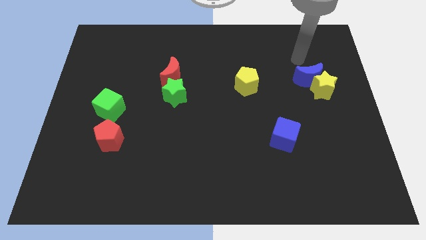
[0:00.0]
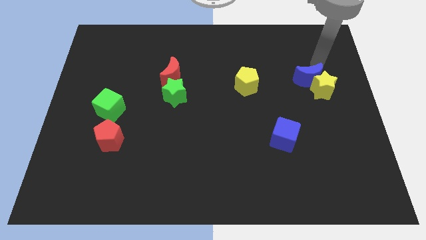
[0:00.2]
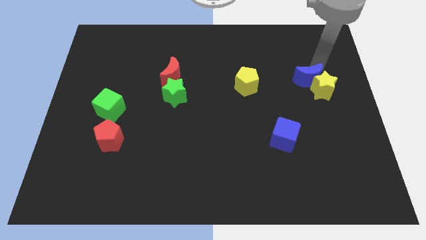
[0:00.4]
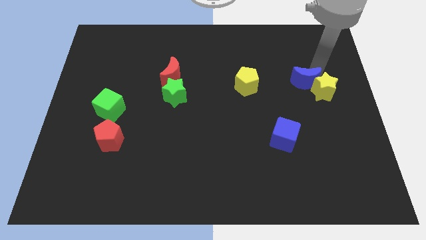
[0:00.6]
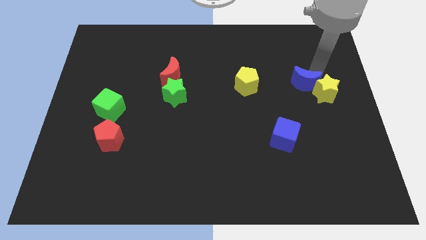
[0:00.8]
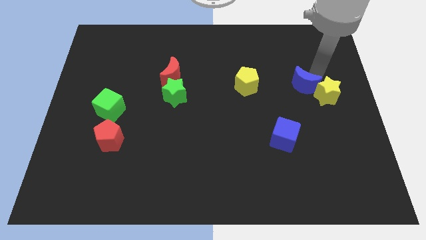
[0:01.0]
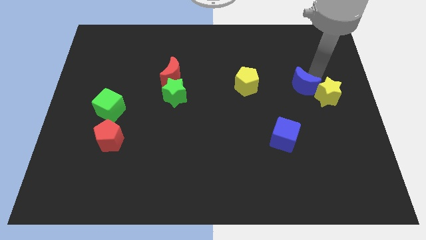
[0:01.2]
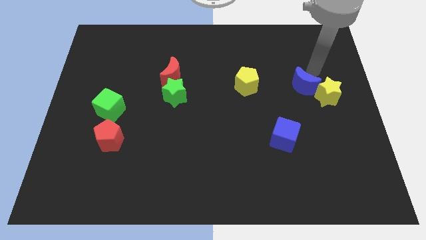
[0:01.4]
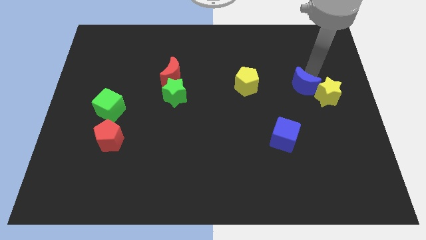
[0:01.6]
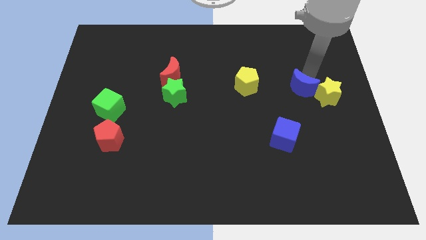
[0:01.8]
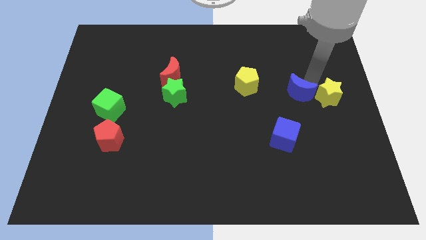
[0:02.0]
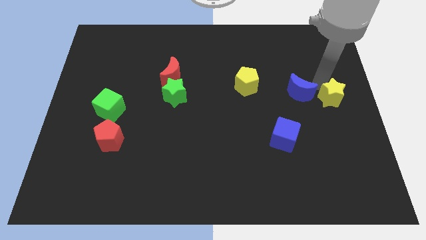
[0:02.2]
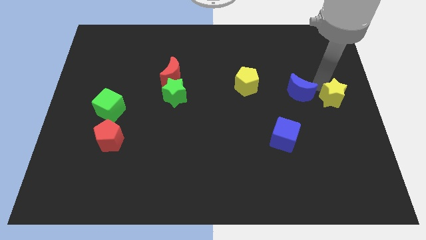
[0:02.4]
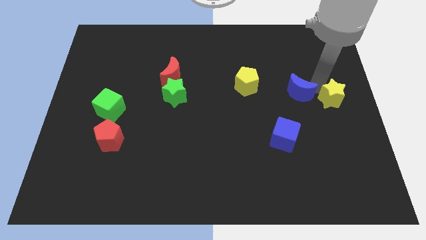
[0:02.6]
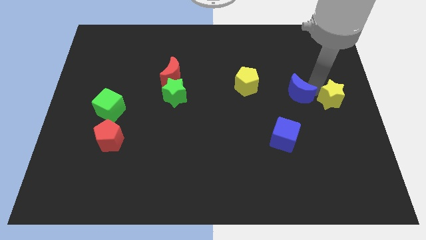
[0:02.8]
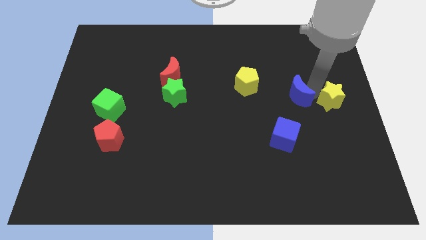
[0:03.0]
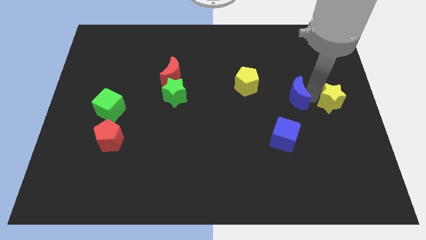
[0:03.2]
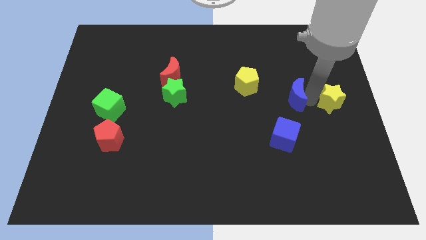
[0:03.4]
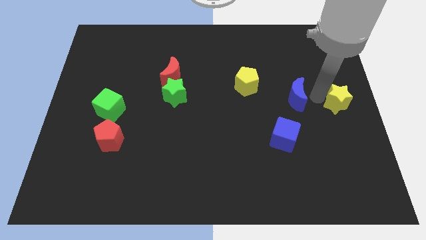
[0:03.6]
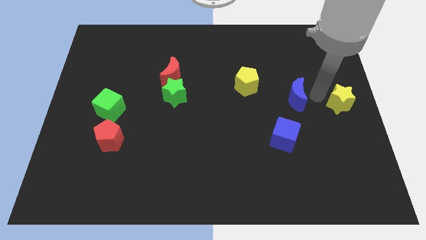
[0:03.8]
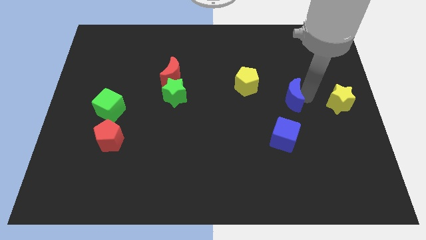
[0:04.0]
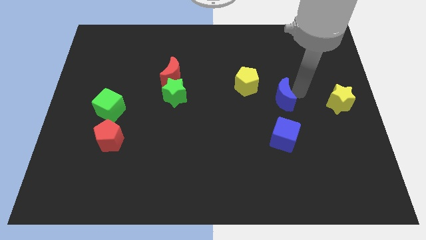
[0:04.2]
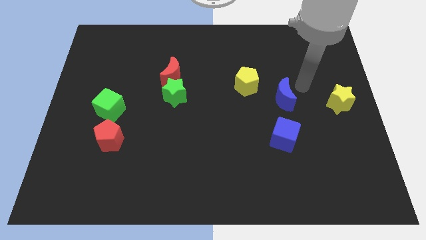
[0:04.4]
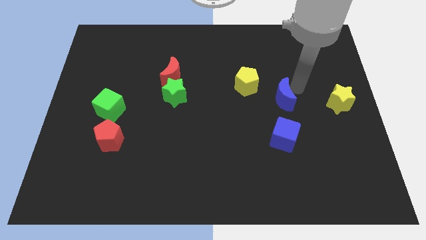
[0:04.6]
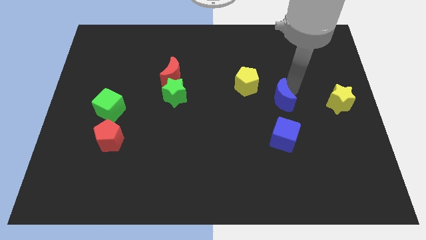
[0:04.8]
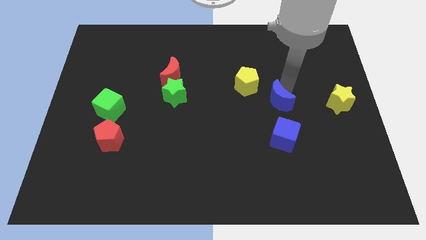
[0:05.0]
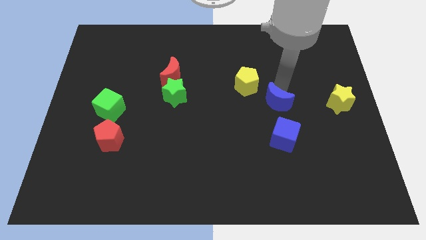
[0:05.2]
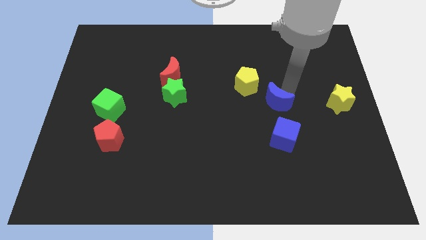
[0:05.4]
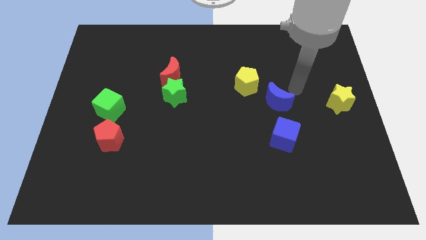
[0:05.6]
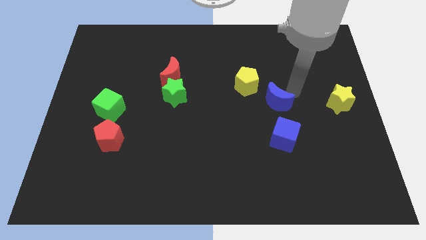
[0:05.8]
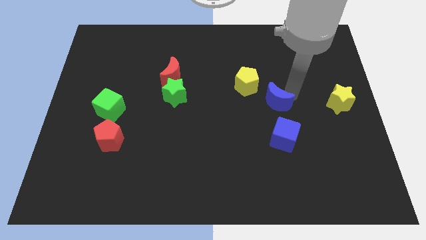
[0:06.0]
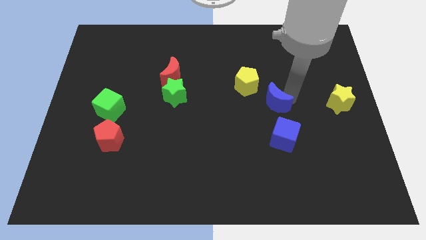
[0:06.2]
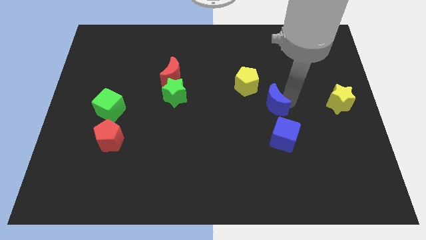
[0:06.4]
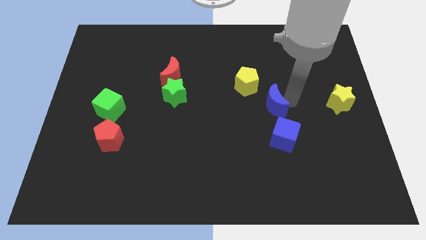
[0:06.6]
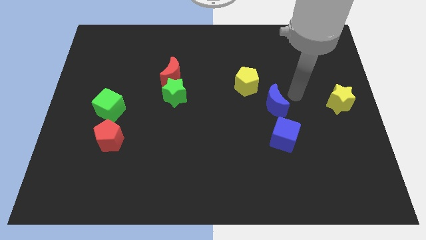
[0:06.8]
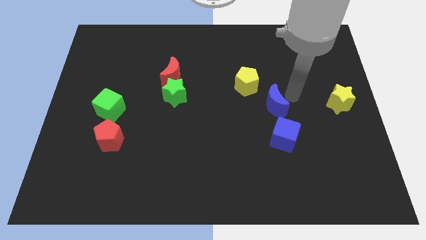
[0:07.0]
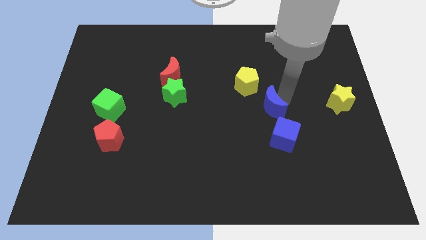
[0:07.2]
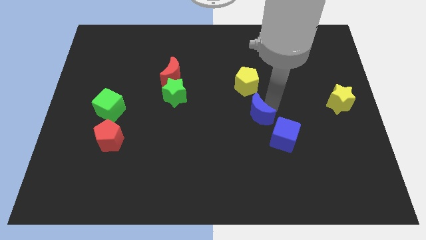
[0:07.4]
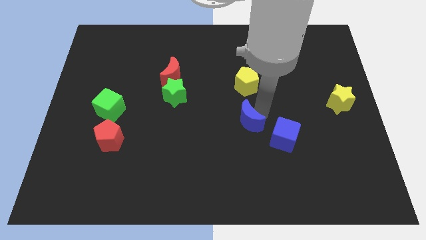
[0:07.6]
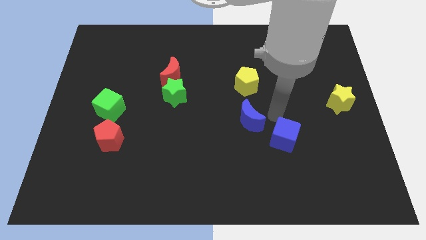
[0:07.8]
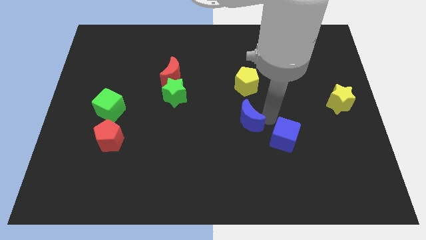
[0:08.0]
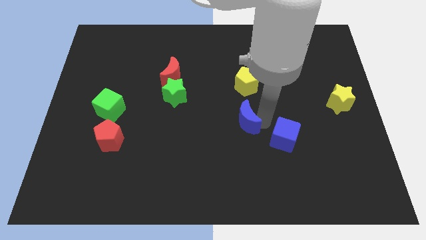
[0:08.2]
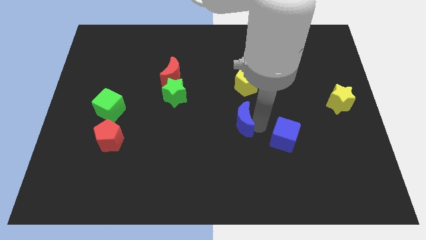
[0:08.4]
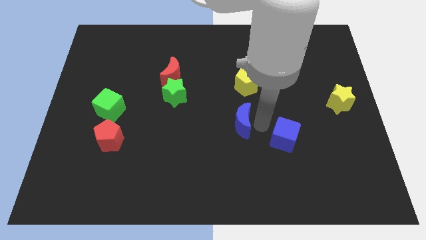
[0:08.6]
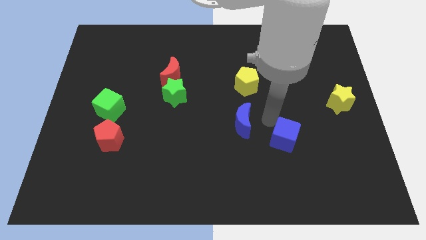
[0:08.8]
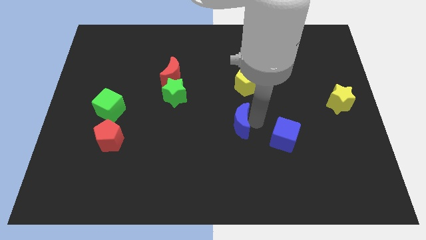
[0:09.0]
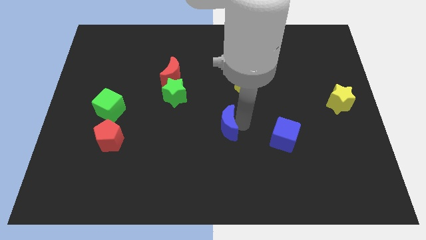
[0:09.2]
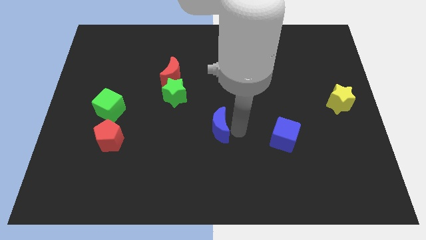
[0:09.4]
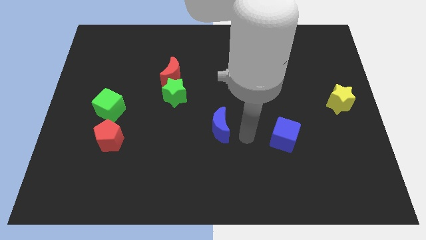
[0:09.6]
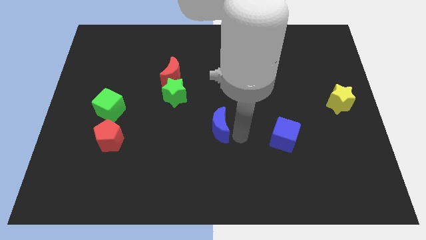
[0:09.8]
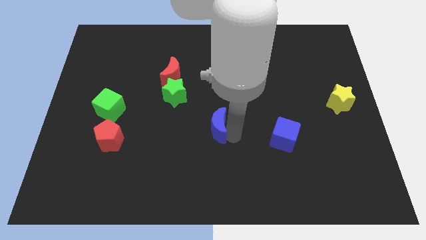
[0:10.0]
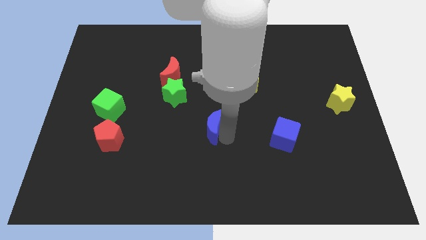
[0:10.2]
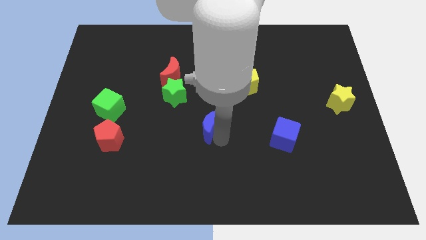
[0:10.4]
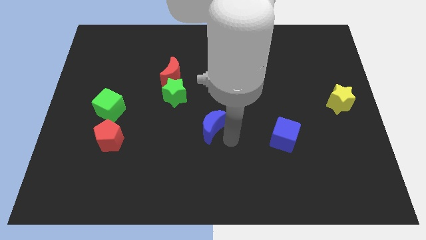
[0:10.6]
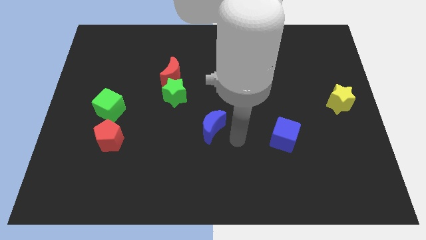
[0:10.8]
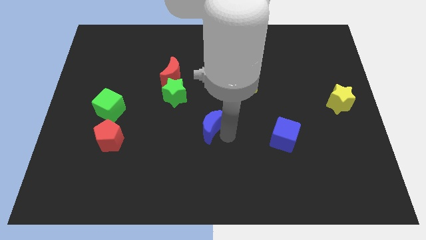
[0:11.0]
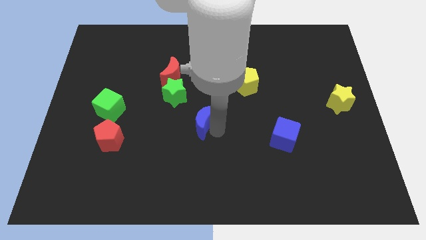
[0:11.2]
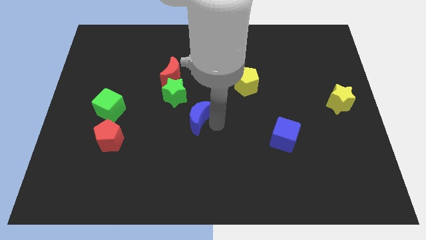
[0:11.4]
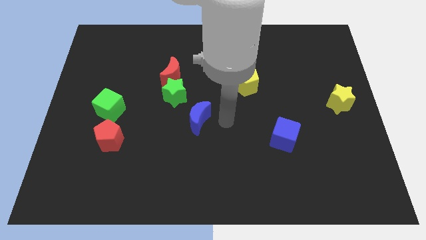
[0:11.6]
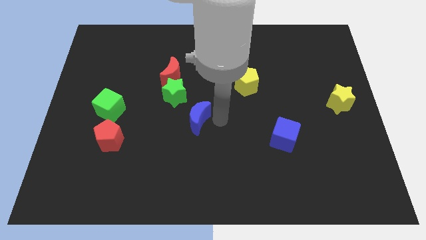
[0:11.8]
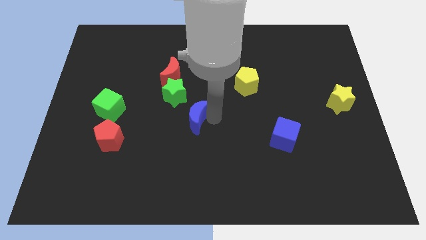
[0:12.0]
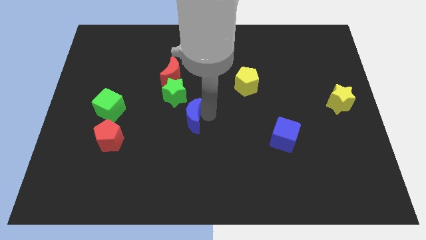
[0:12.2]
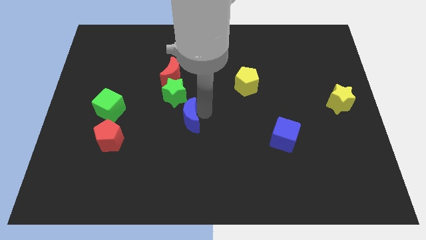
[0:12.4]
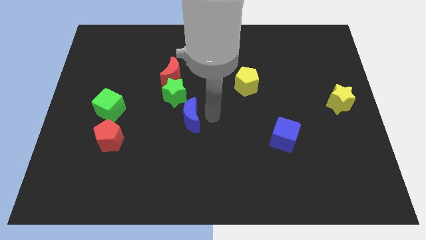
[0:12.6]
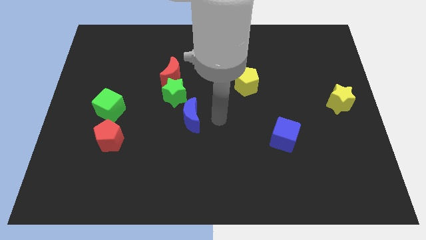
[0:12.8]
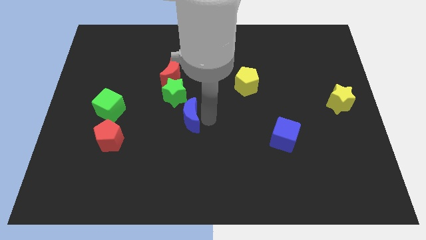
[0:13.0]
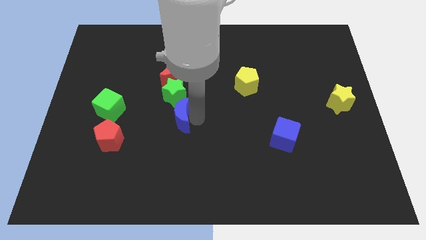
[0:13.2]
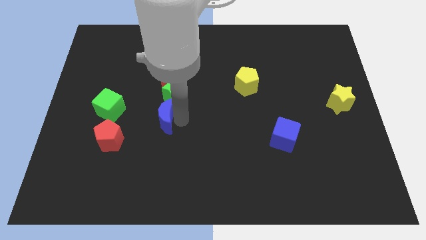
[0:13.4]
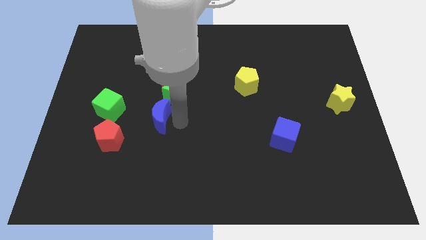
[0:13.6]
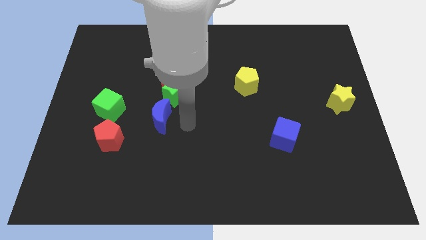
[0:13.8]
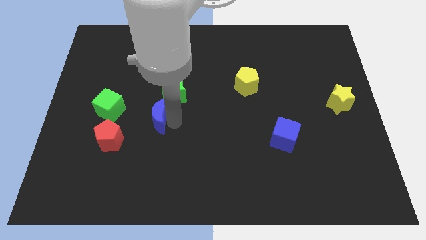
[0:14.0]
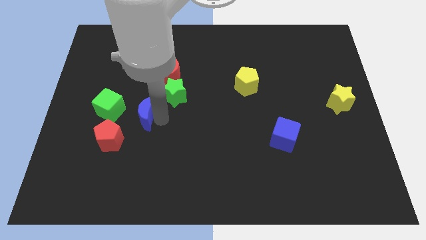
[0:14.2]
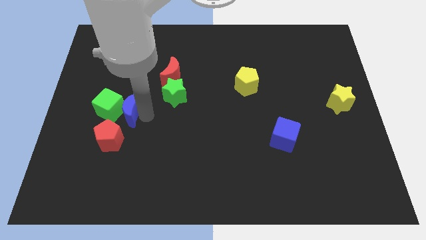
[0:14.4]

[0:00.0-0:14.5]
push the blue moon to the green cube
